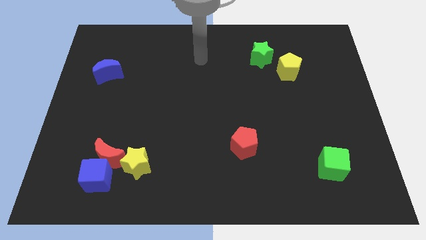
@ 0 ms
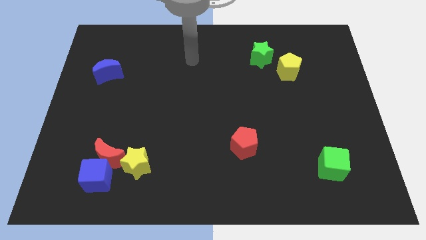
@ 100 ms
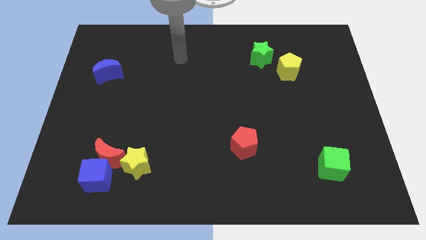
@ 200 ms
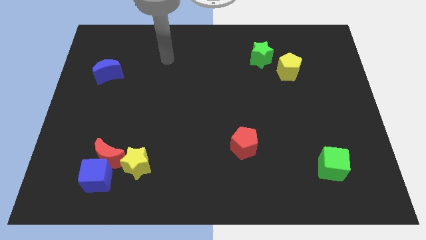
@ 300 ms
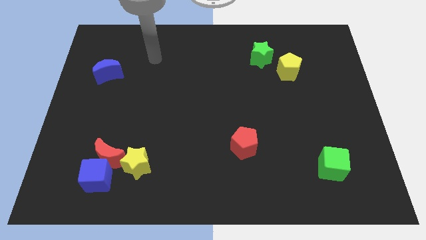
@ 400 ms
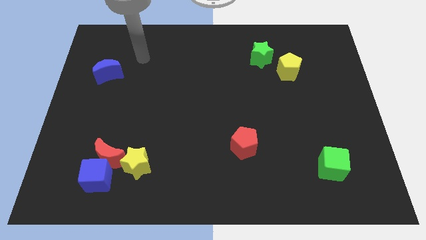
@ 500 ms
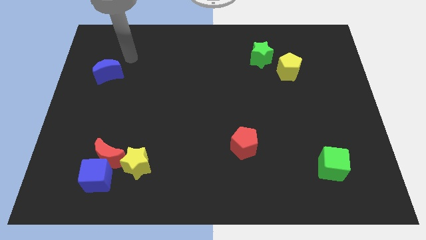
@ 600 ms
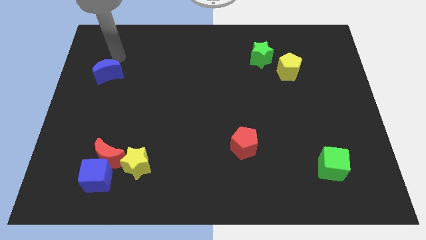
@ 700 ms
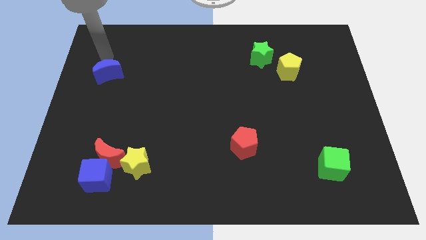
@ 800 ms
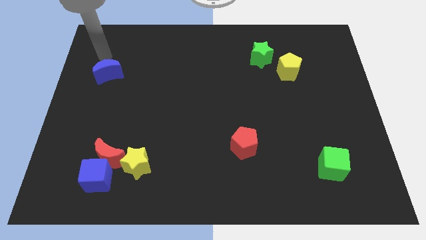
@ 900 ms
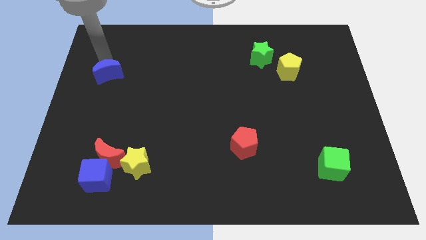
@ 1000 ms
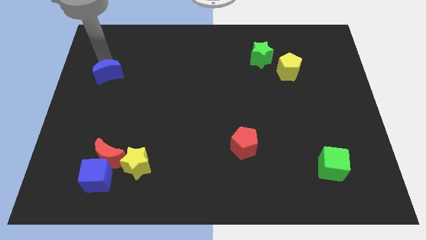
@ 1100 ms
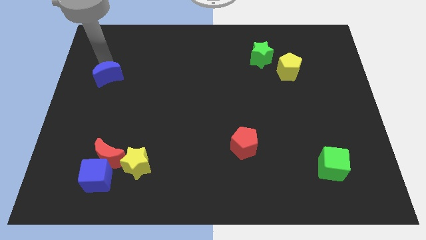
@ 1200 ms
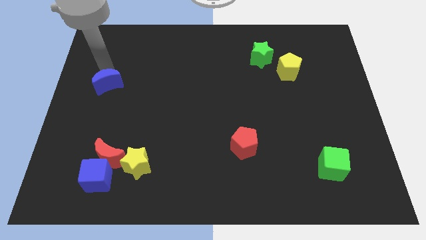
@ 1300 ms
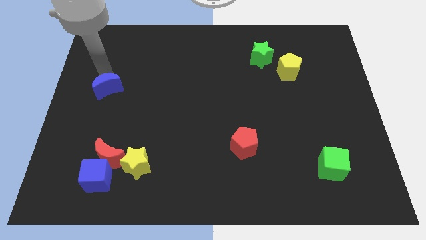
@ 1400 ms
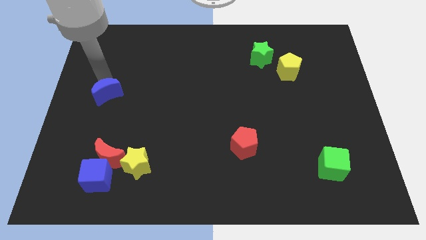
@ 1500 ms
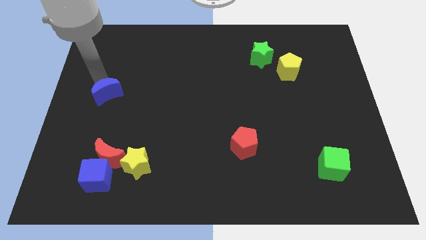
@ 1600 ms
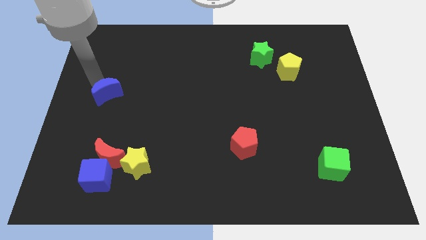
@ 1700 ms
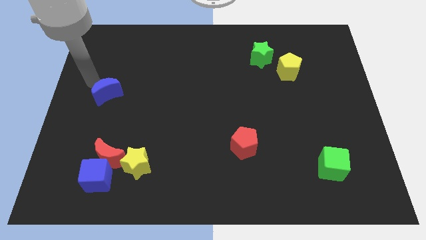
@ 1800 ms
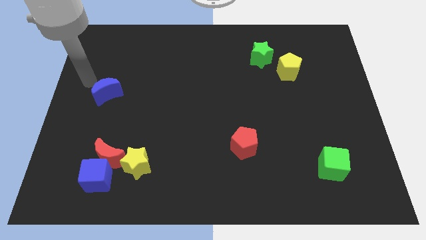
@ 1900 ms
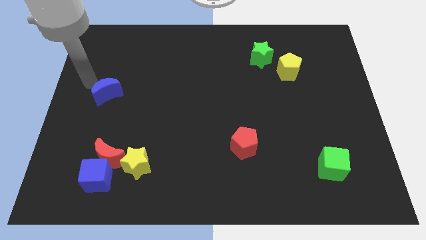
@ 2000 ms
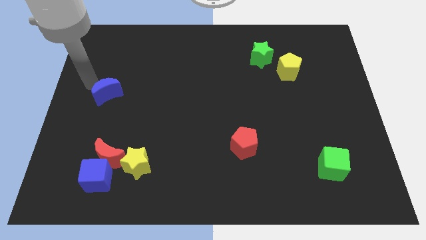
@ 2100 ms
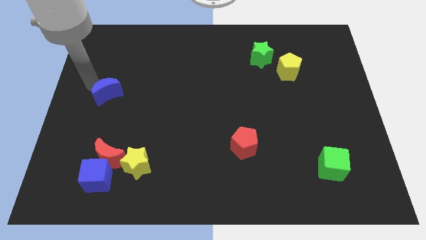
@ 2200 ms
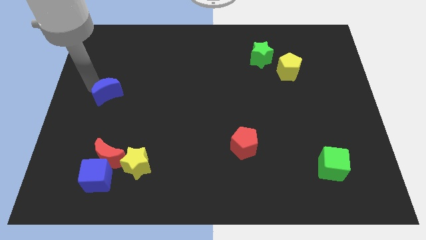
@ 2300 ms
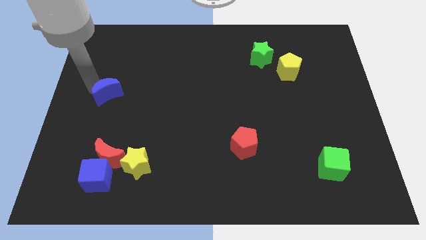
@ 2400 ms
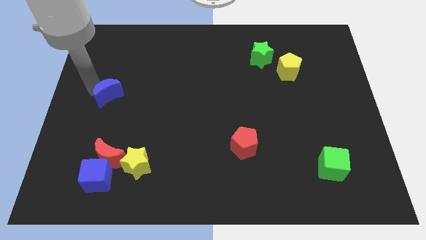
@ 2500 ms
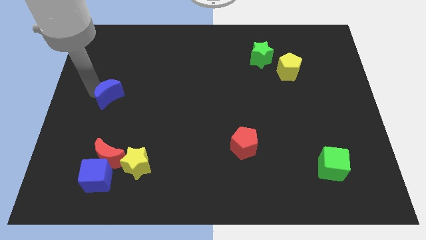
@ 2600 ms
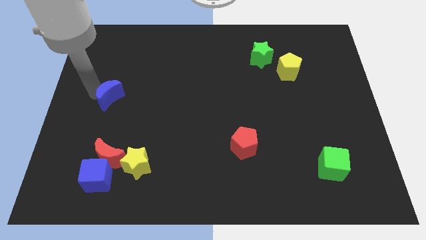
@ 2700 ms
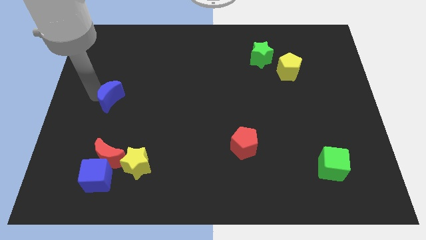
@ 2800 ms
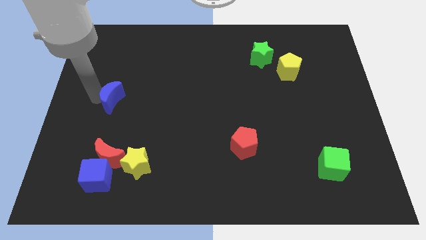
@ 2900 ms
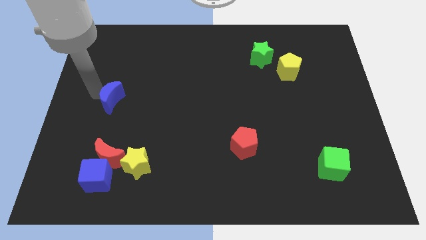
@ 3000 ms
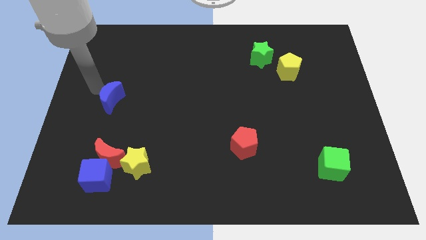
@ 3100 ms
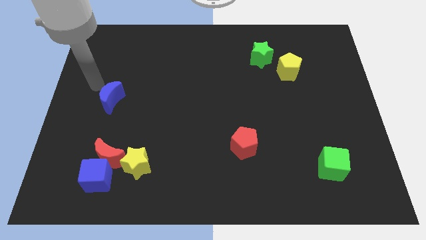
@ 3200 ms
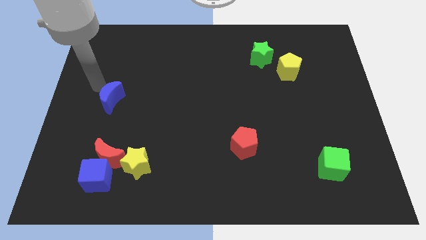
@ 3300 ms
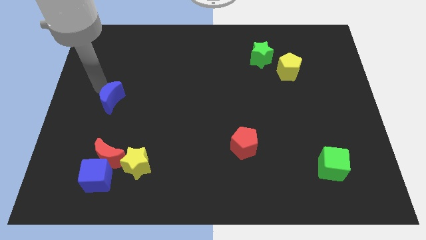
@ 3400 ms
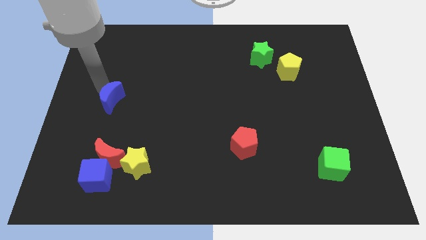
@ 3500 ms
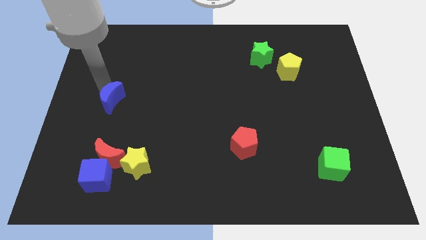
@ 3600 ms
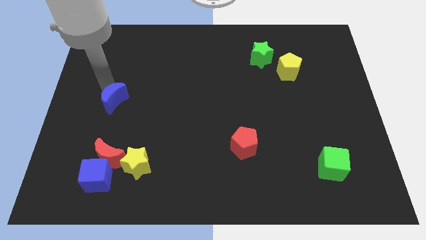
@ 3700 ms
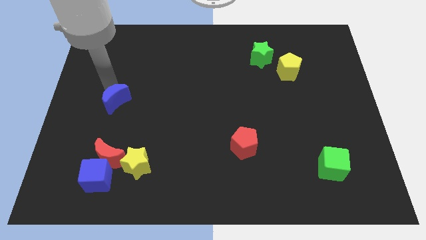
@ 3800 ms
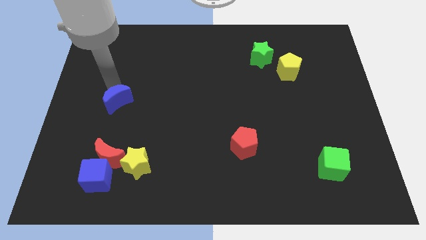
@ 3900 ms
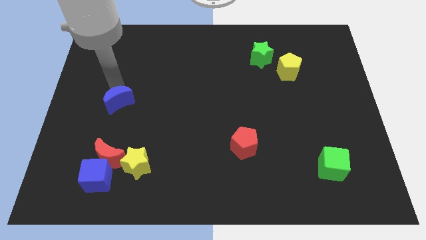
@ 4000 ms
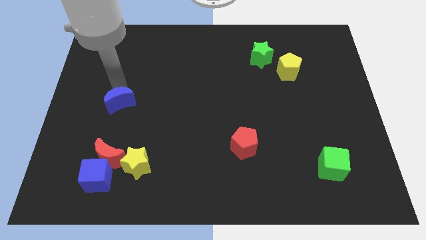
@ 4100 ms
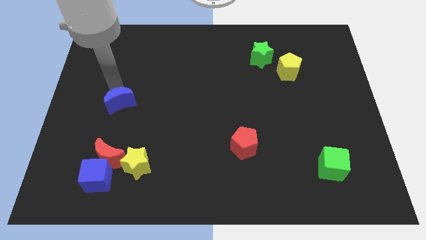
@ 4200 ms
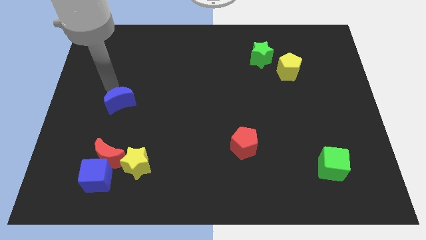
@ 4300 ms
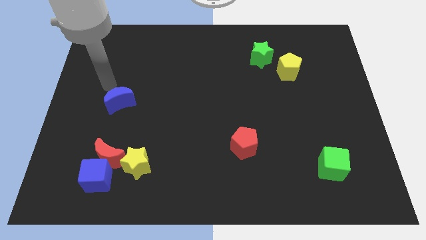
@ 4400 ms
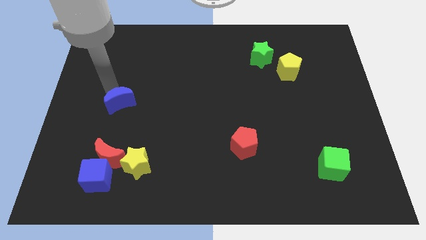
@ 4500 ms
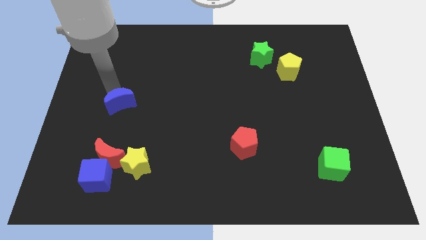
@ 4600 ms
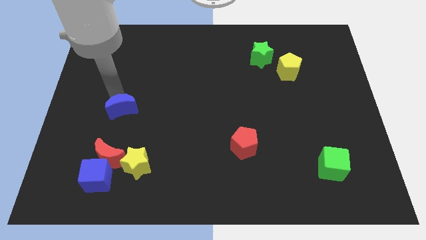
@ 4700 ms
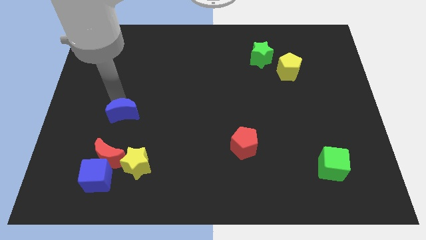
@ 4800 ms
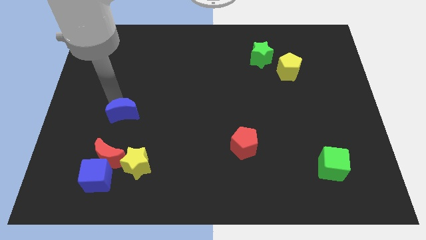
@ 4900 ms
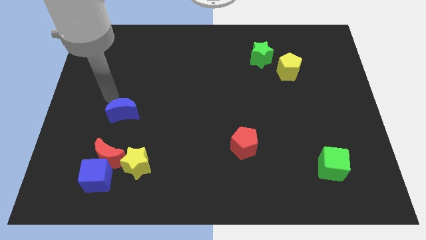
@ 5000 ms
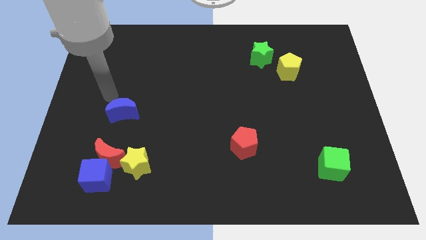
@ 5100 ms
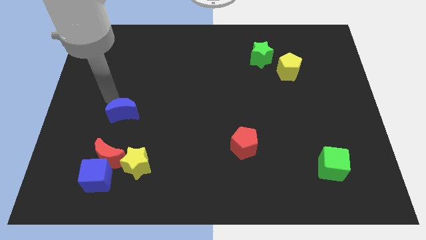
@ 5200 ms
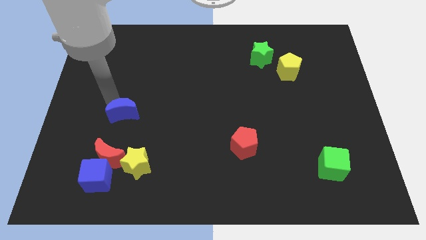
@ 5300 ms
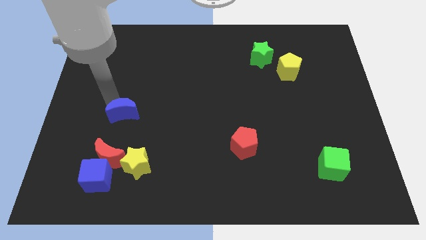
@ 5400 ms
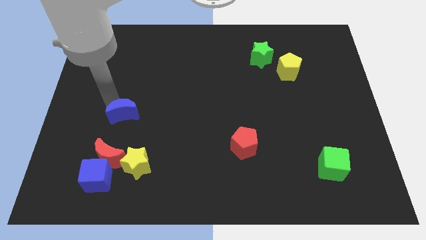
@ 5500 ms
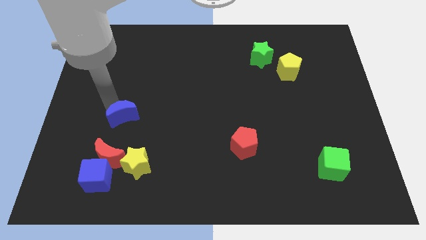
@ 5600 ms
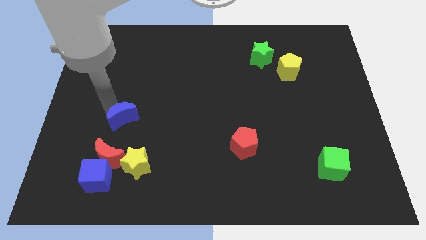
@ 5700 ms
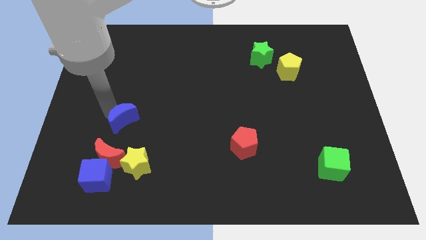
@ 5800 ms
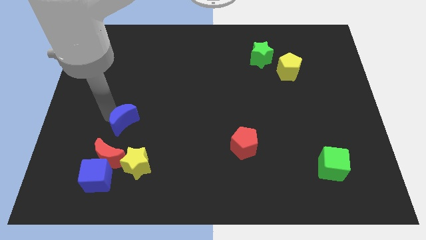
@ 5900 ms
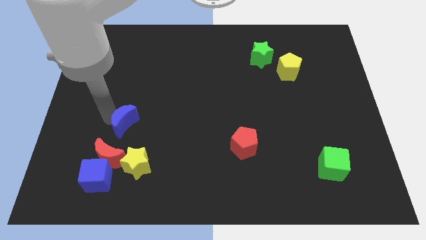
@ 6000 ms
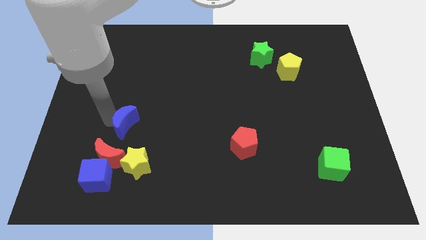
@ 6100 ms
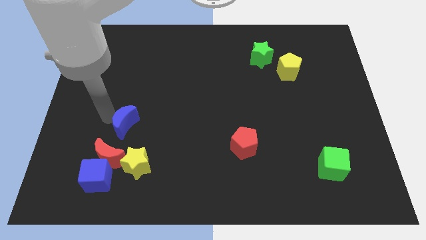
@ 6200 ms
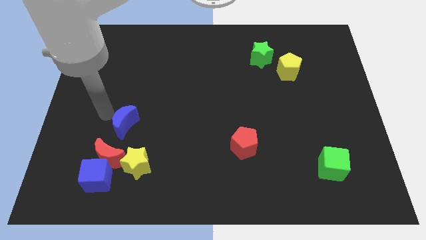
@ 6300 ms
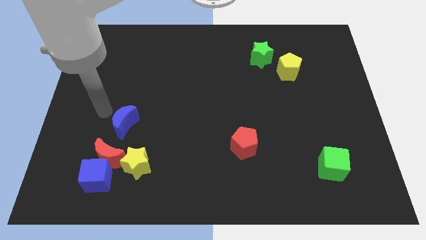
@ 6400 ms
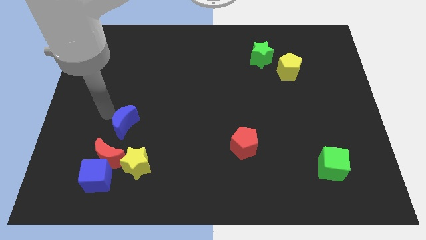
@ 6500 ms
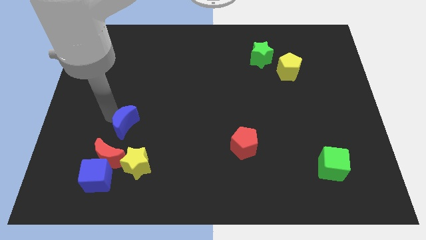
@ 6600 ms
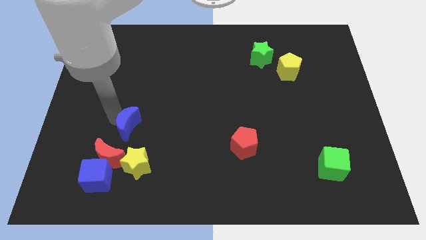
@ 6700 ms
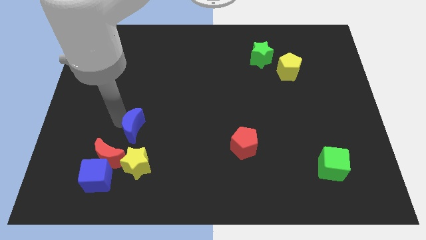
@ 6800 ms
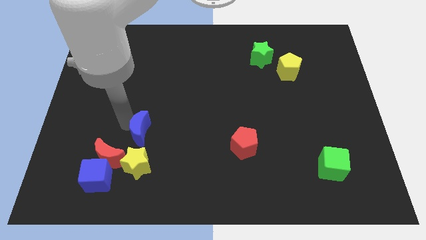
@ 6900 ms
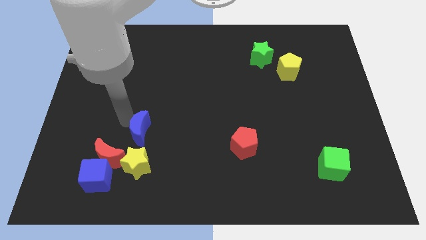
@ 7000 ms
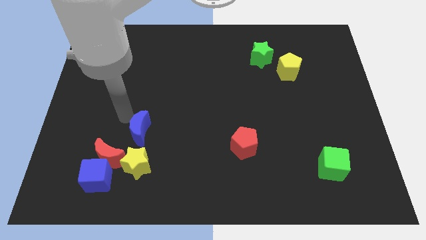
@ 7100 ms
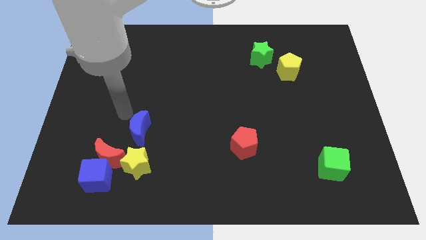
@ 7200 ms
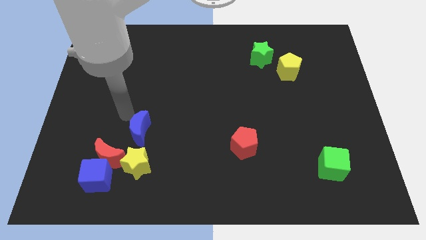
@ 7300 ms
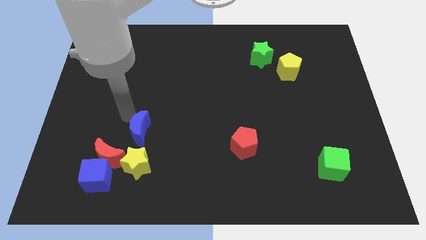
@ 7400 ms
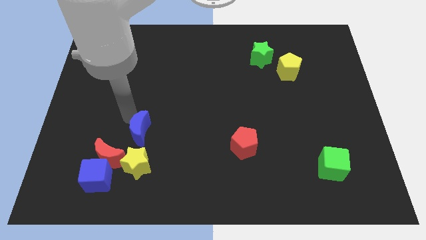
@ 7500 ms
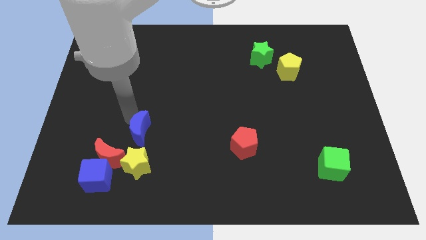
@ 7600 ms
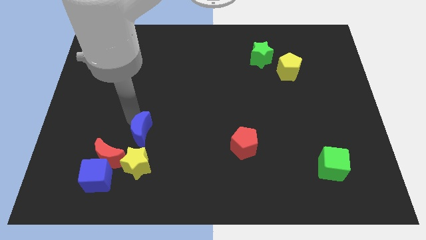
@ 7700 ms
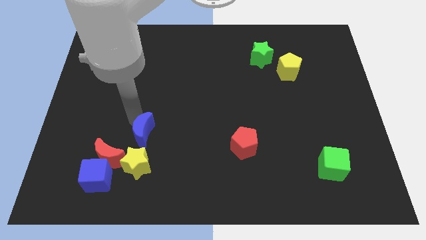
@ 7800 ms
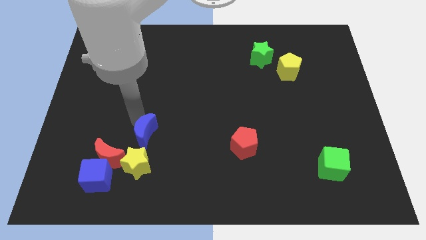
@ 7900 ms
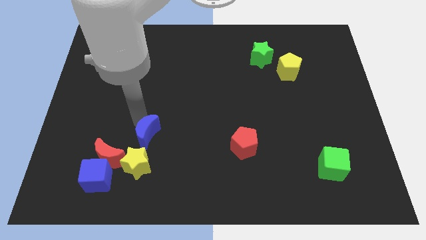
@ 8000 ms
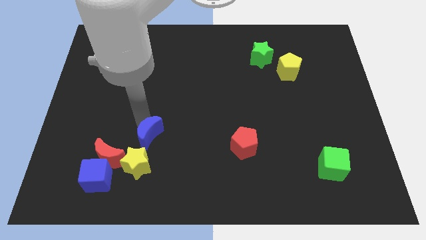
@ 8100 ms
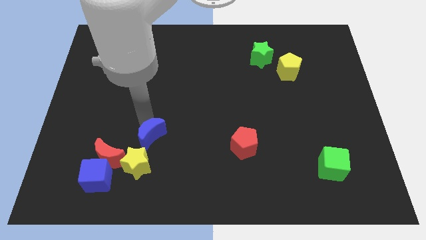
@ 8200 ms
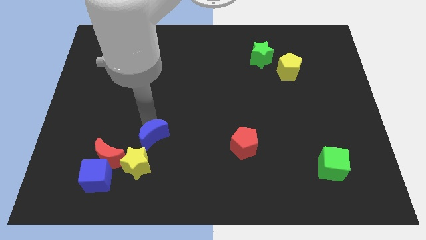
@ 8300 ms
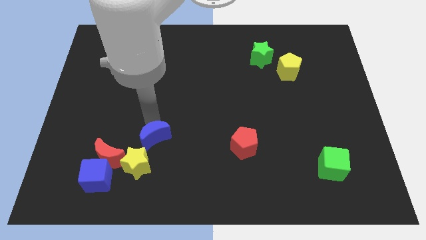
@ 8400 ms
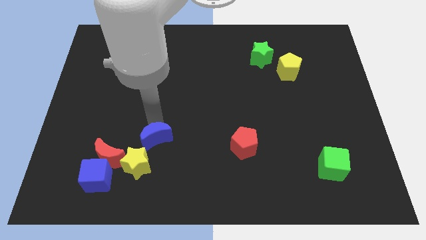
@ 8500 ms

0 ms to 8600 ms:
move the blue moon just right of the red moon
